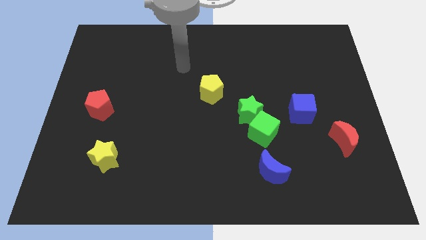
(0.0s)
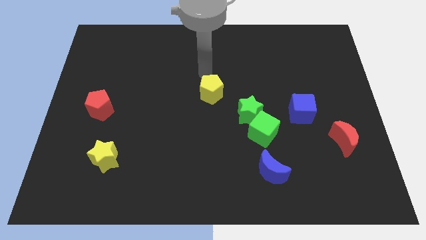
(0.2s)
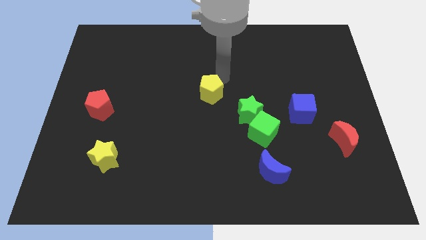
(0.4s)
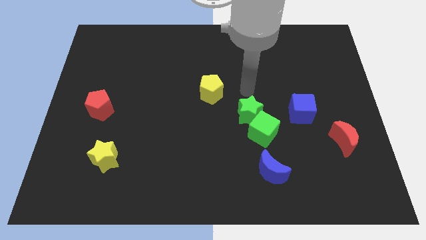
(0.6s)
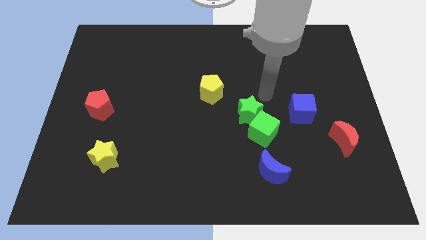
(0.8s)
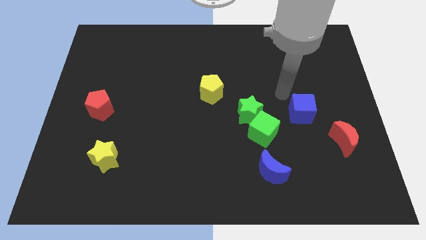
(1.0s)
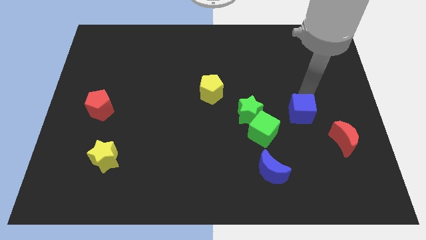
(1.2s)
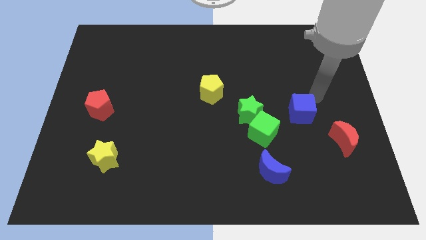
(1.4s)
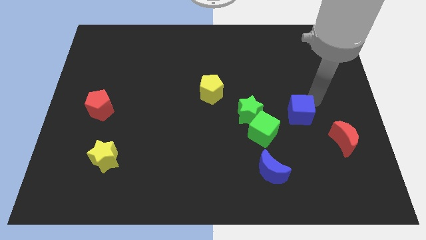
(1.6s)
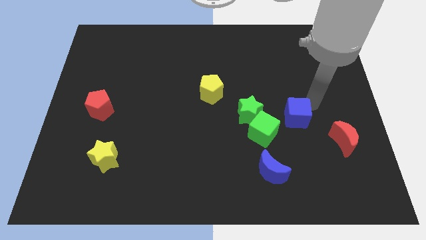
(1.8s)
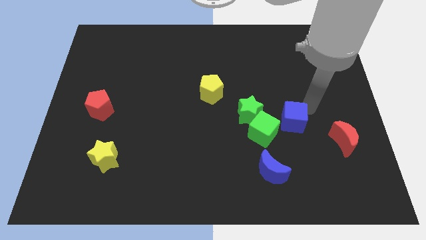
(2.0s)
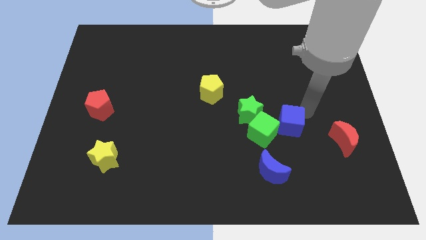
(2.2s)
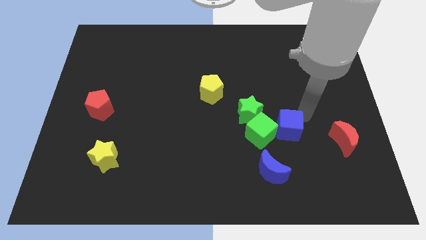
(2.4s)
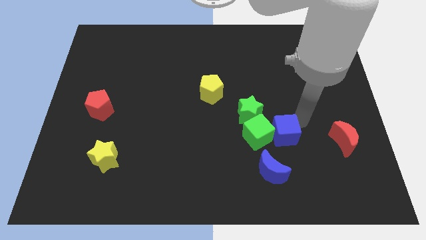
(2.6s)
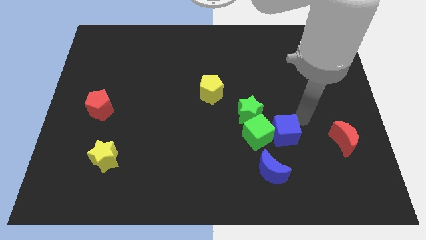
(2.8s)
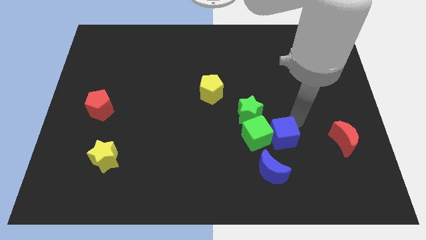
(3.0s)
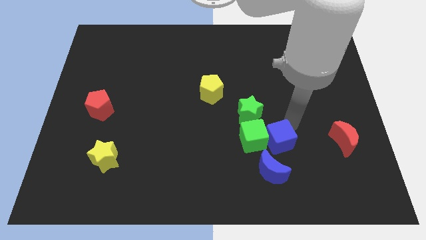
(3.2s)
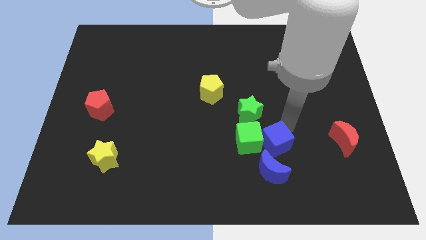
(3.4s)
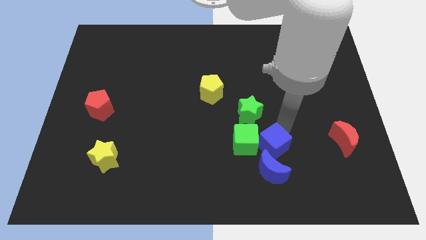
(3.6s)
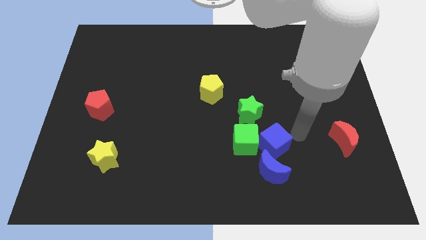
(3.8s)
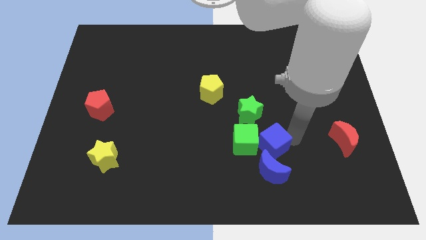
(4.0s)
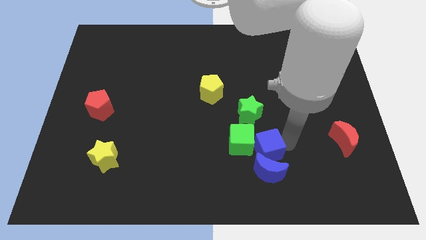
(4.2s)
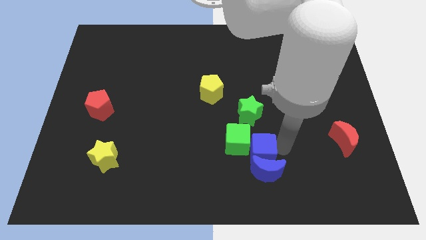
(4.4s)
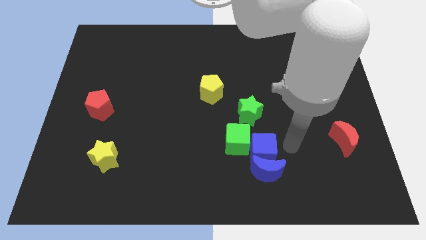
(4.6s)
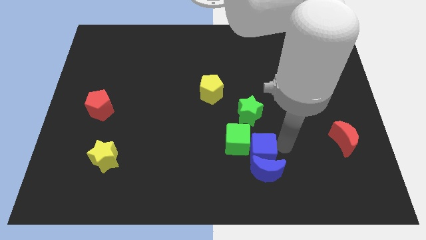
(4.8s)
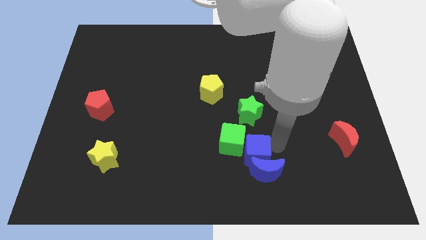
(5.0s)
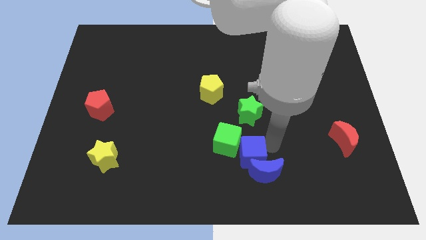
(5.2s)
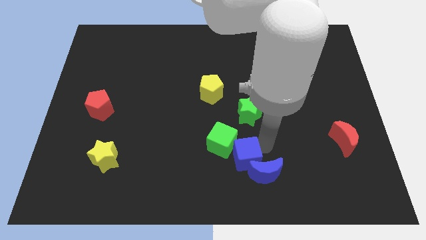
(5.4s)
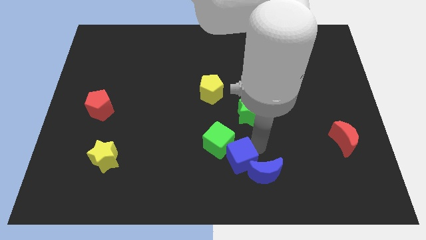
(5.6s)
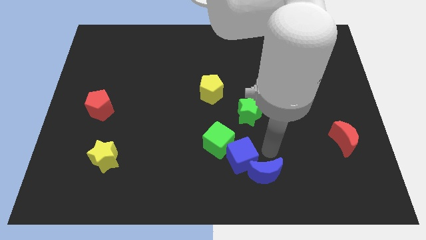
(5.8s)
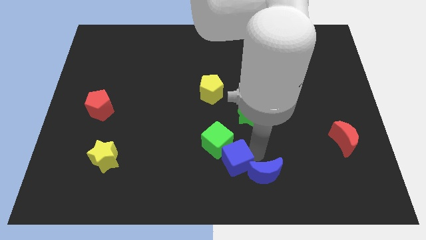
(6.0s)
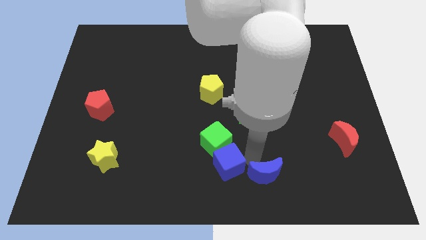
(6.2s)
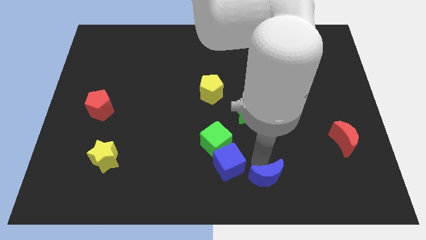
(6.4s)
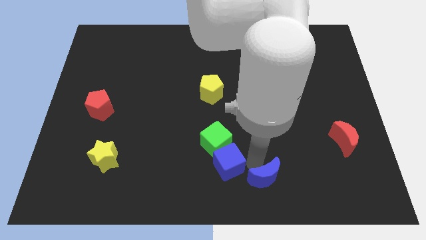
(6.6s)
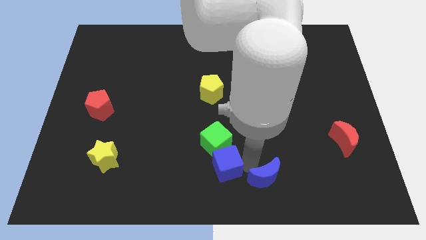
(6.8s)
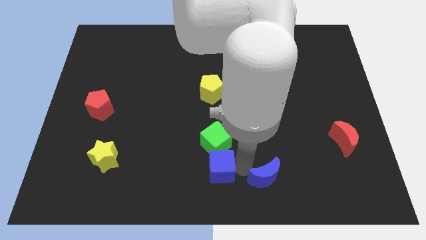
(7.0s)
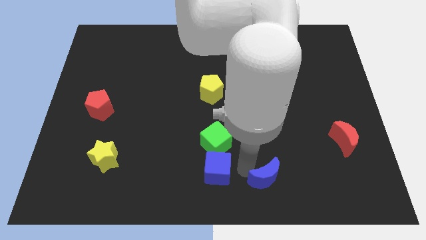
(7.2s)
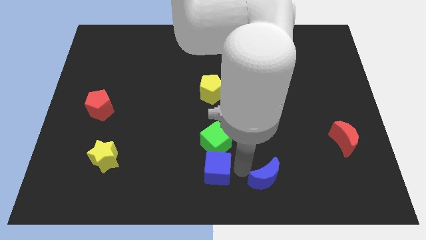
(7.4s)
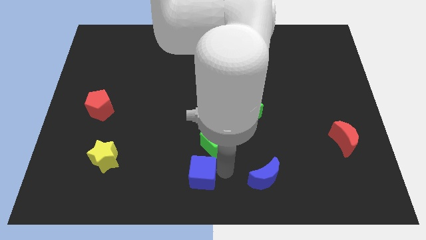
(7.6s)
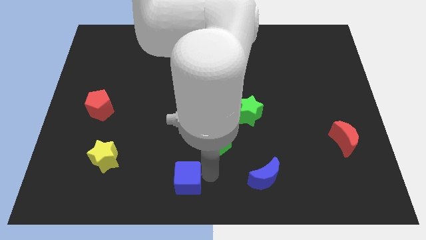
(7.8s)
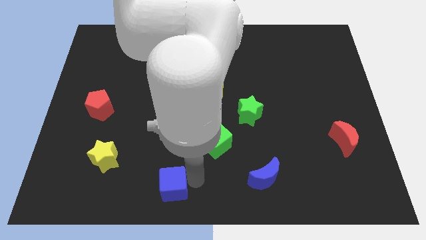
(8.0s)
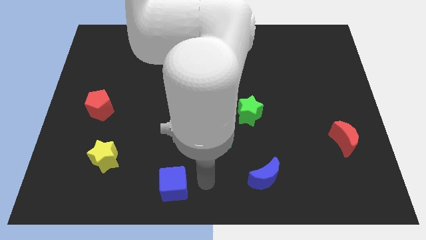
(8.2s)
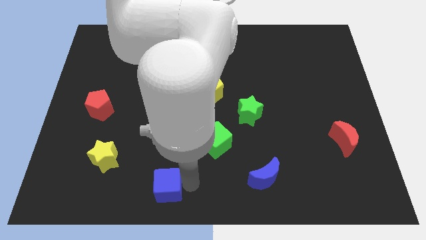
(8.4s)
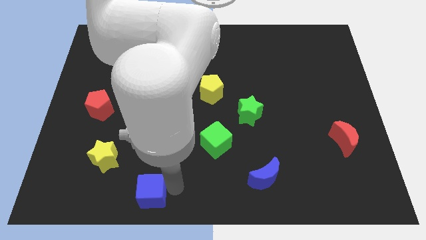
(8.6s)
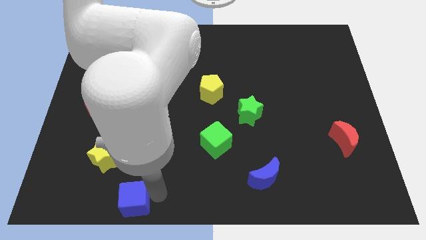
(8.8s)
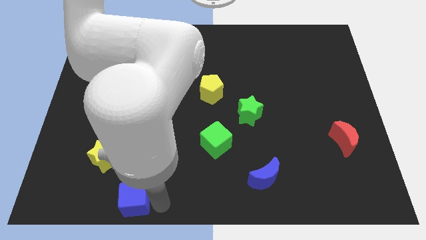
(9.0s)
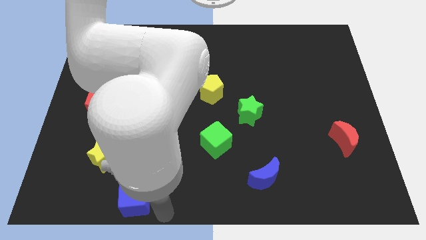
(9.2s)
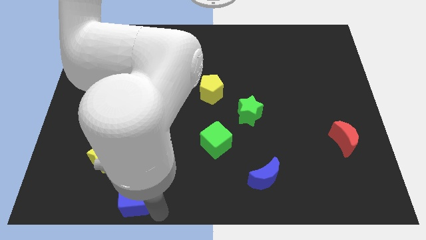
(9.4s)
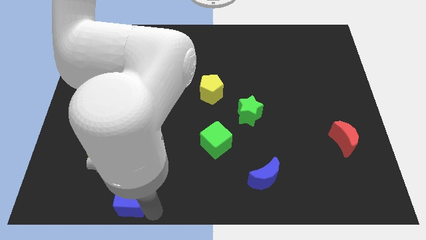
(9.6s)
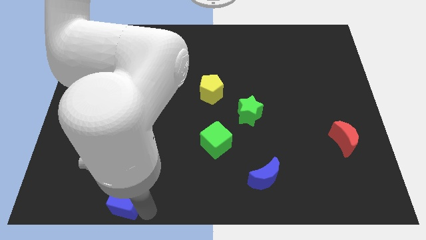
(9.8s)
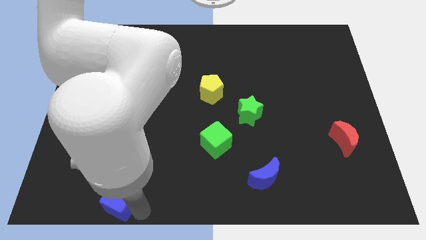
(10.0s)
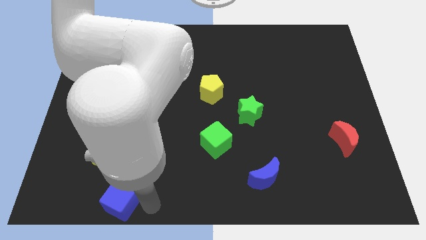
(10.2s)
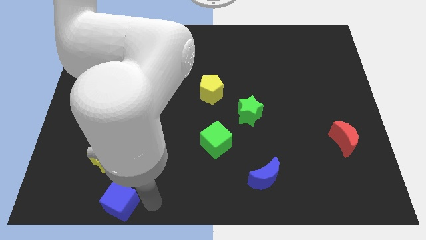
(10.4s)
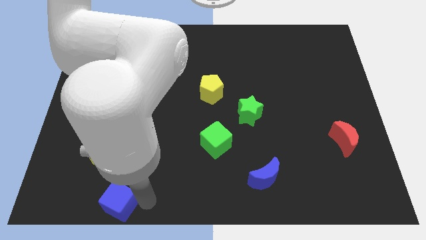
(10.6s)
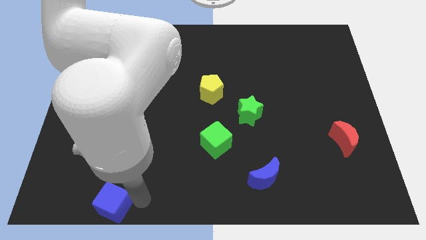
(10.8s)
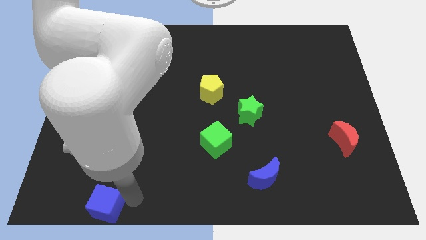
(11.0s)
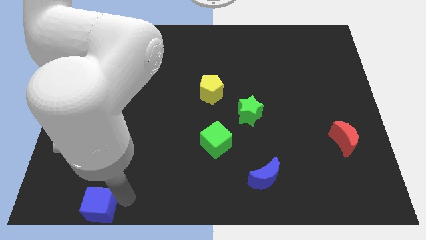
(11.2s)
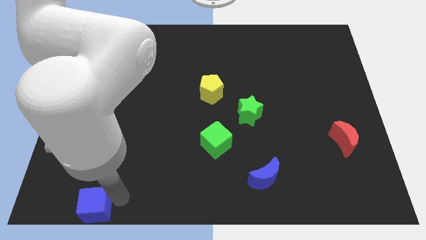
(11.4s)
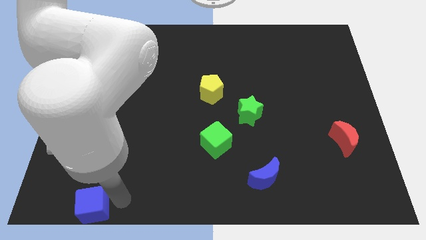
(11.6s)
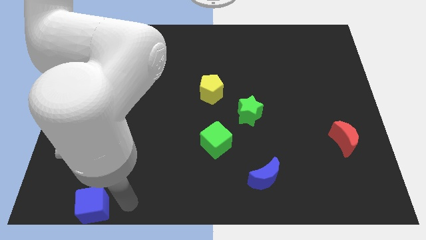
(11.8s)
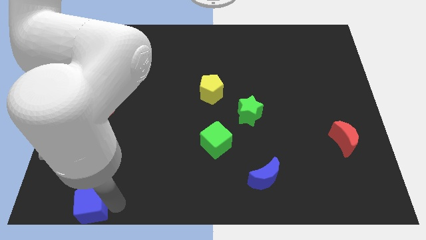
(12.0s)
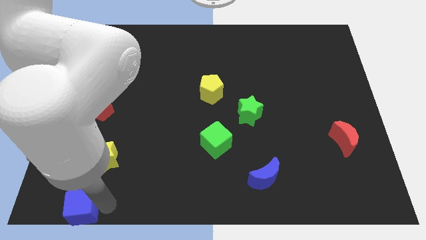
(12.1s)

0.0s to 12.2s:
push the blue cube to the bottom left corner

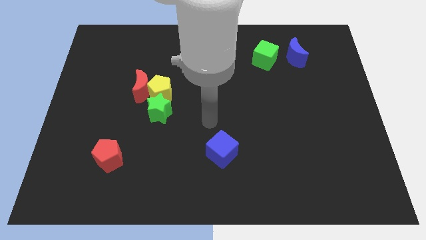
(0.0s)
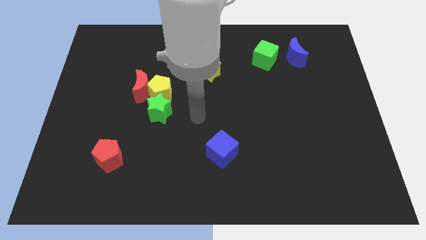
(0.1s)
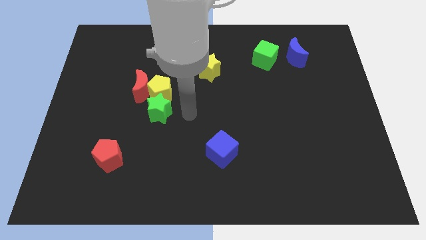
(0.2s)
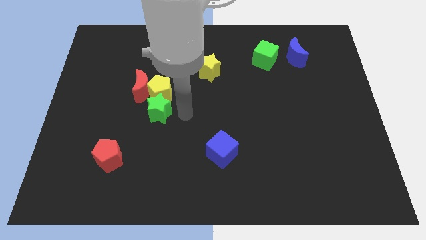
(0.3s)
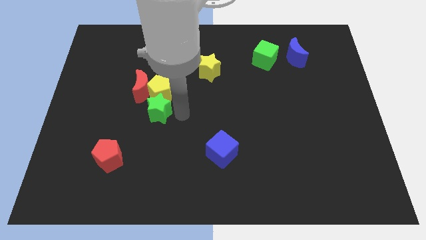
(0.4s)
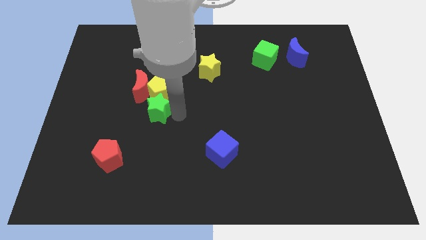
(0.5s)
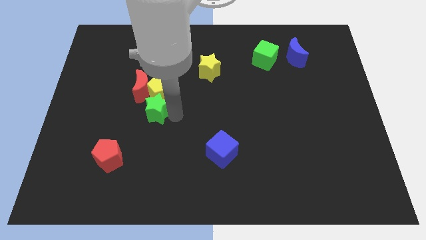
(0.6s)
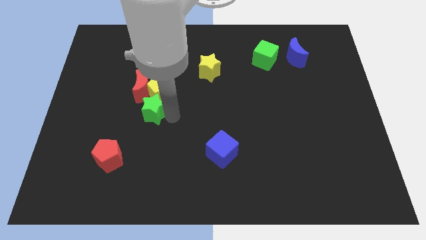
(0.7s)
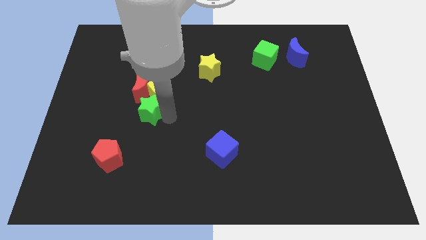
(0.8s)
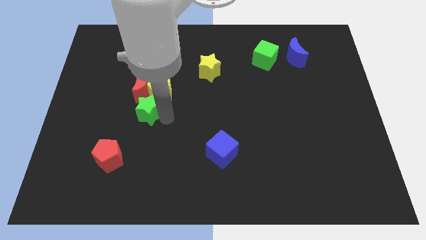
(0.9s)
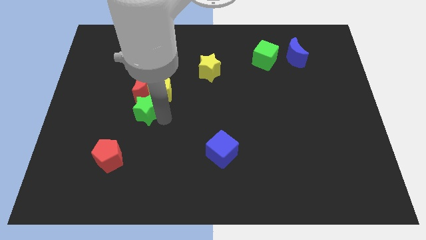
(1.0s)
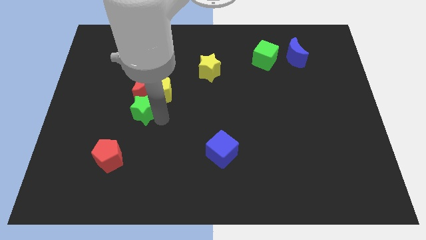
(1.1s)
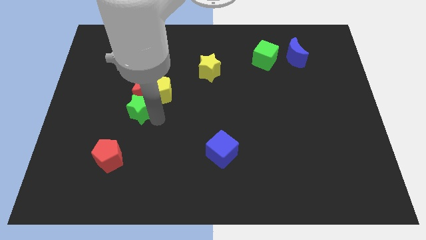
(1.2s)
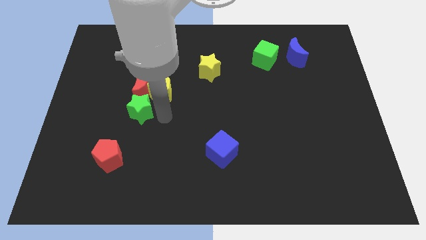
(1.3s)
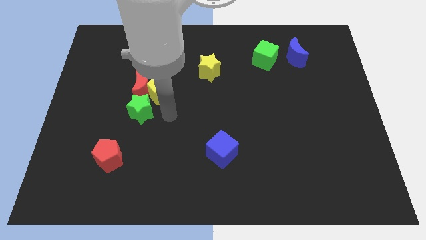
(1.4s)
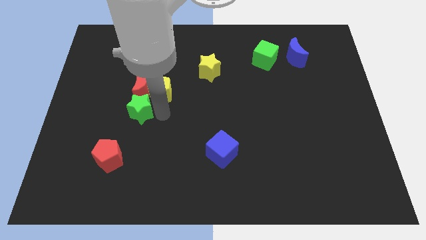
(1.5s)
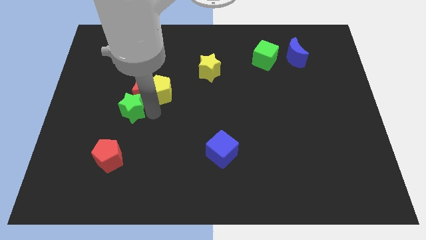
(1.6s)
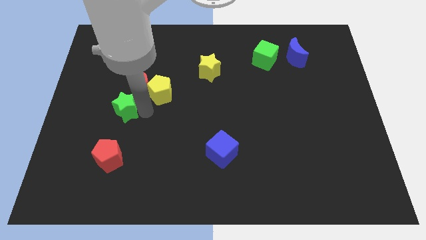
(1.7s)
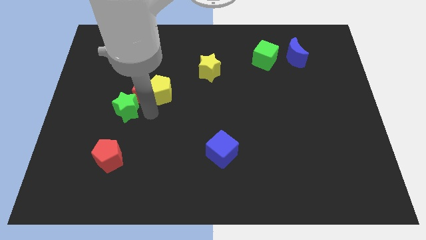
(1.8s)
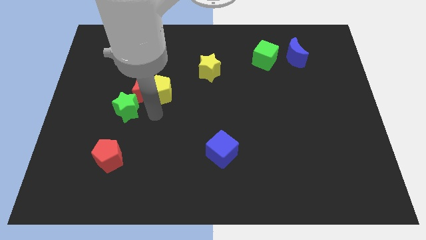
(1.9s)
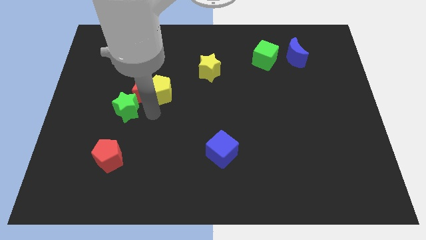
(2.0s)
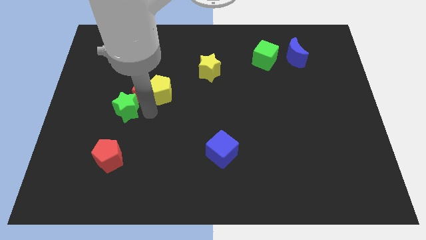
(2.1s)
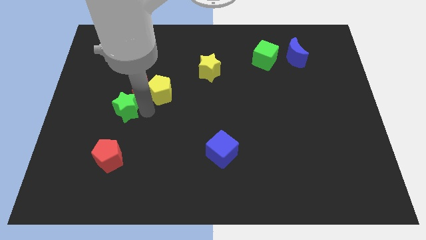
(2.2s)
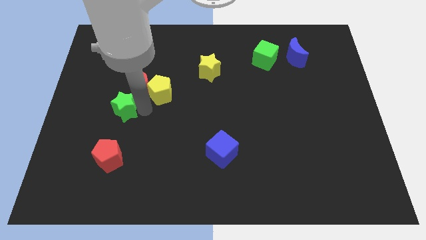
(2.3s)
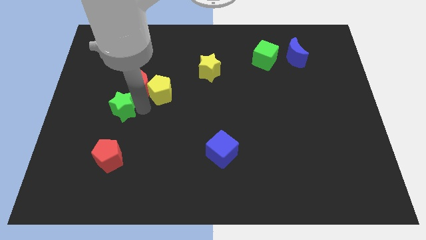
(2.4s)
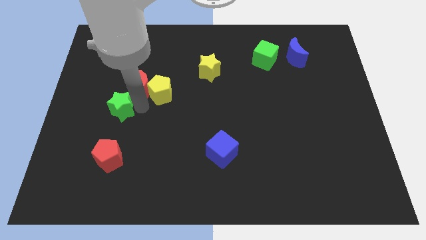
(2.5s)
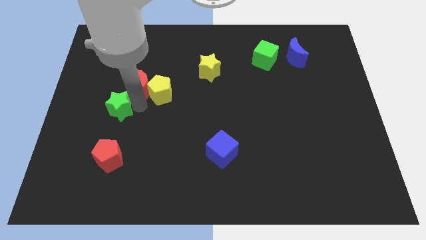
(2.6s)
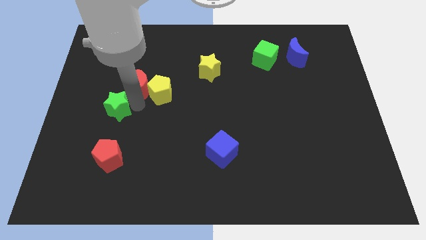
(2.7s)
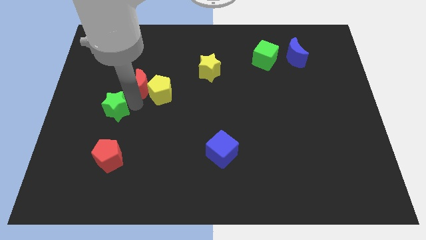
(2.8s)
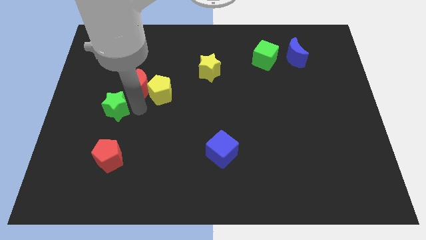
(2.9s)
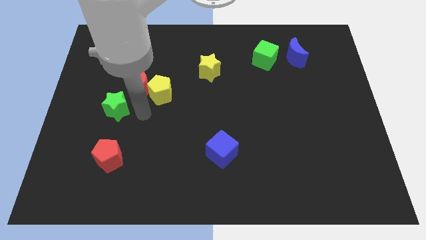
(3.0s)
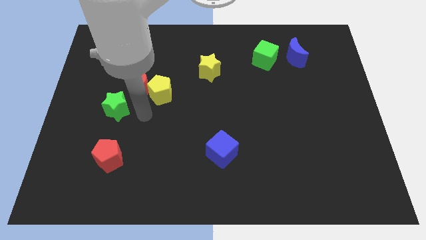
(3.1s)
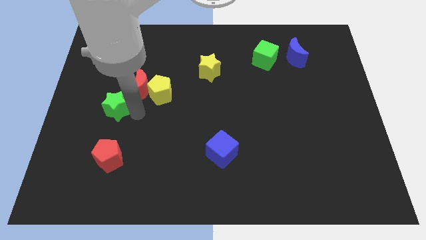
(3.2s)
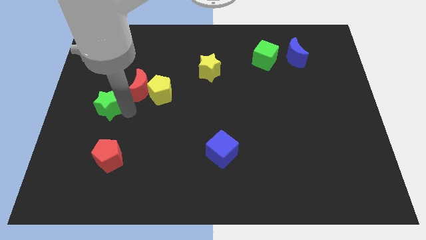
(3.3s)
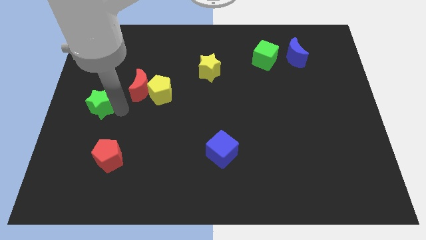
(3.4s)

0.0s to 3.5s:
put the green star to the left side of the board
